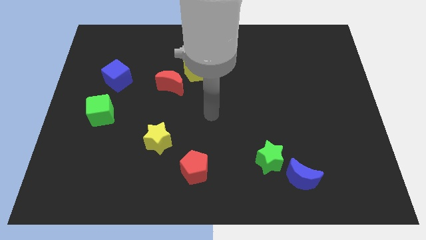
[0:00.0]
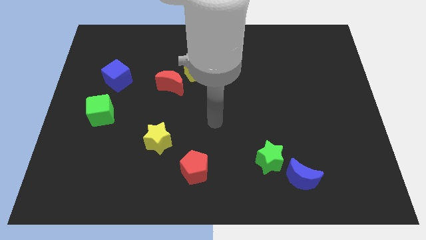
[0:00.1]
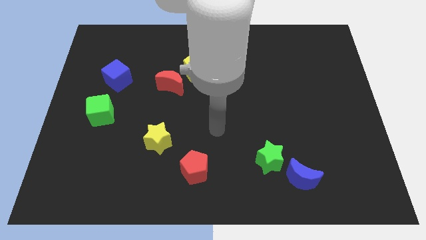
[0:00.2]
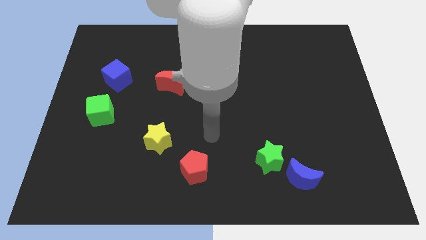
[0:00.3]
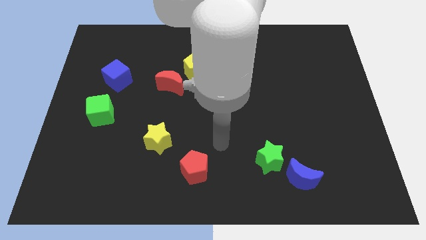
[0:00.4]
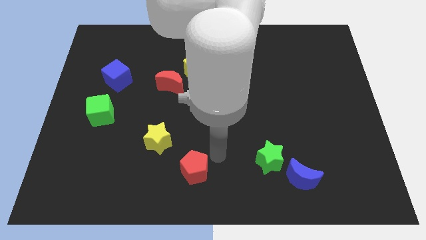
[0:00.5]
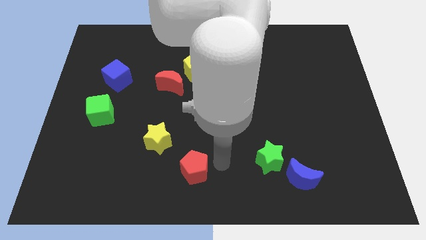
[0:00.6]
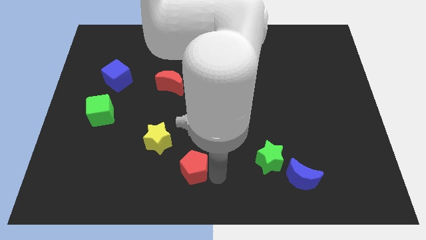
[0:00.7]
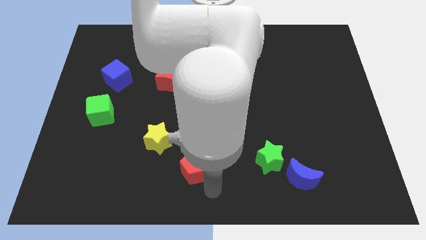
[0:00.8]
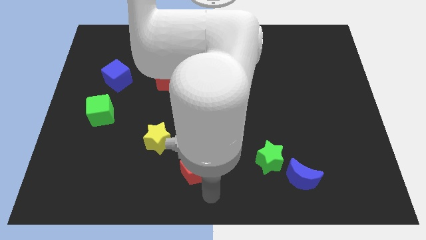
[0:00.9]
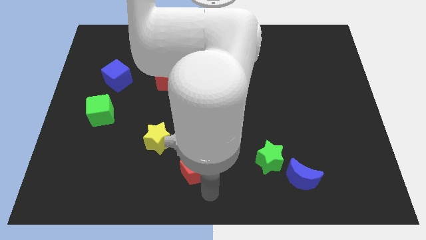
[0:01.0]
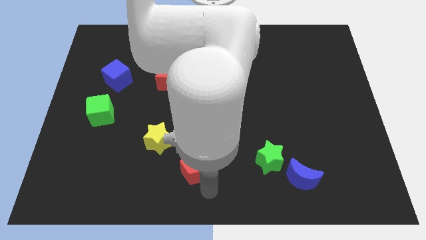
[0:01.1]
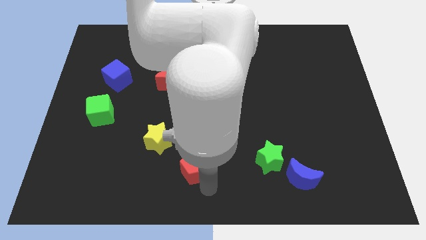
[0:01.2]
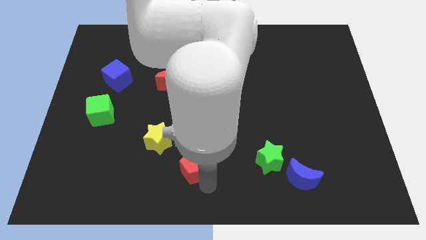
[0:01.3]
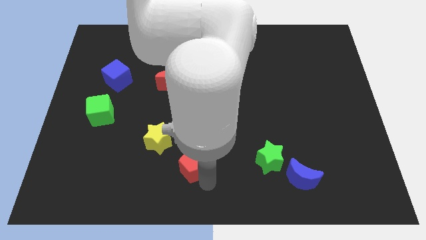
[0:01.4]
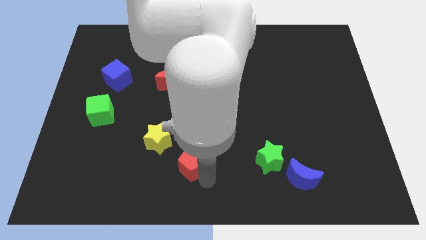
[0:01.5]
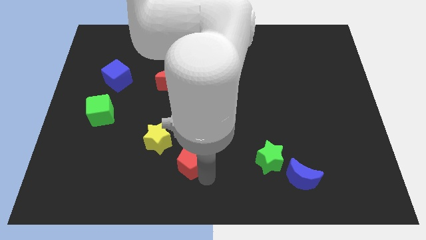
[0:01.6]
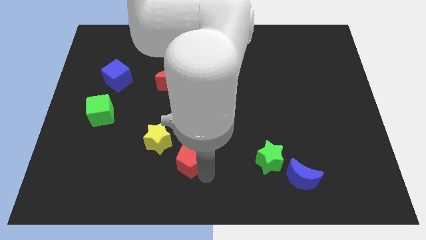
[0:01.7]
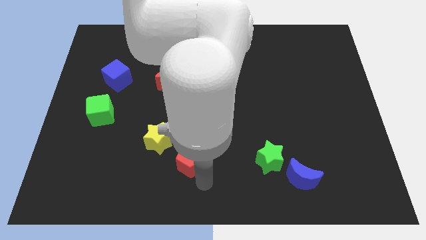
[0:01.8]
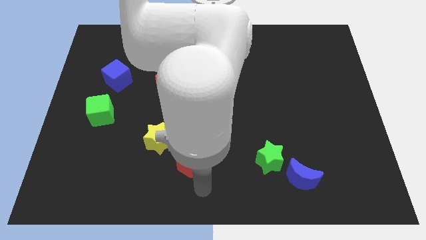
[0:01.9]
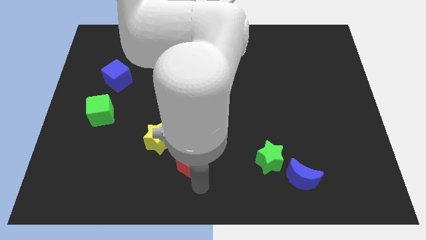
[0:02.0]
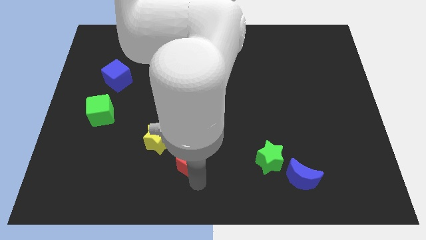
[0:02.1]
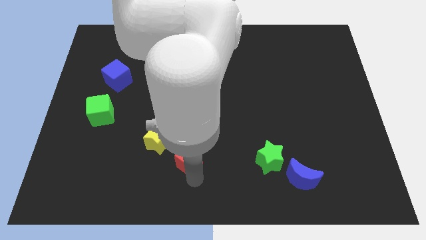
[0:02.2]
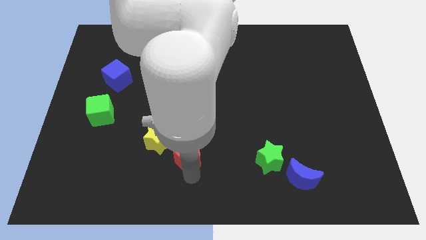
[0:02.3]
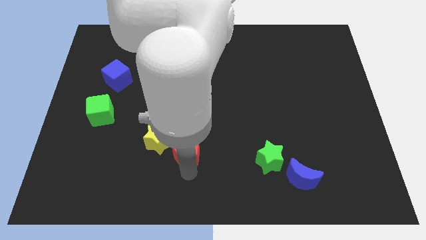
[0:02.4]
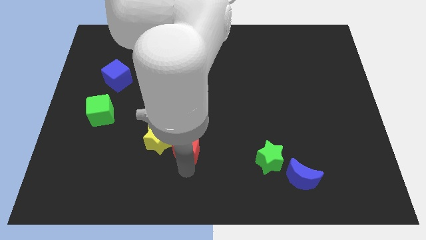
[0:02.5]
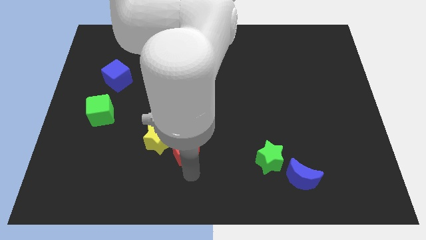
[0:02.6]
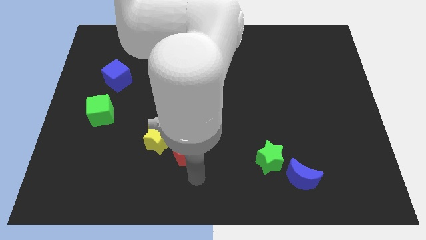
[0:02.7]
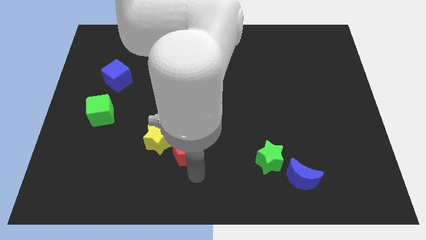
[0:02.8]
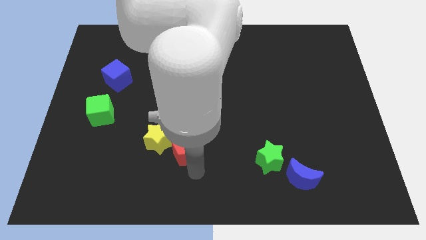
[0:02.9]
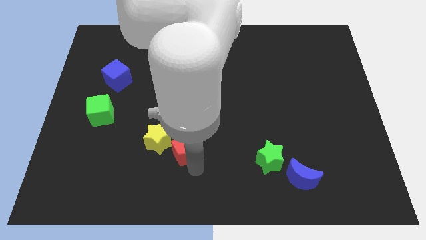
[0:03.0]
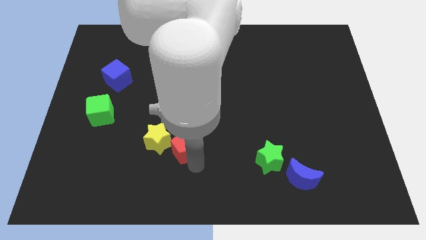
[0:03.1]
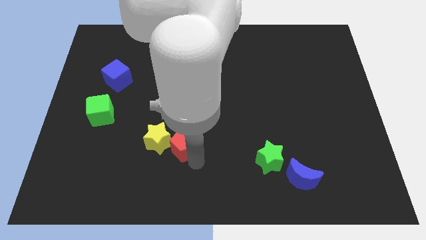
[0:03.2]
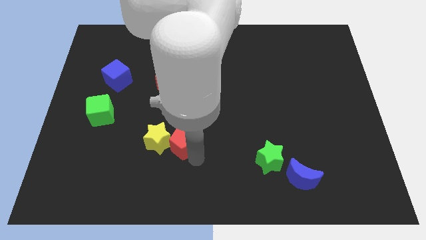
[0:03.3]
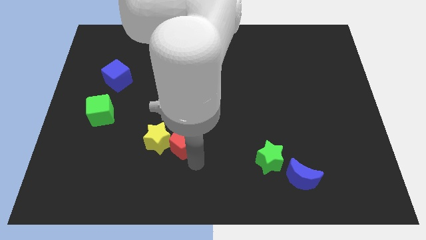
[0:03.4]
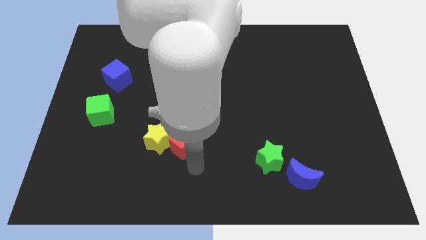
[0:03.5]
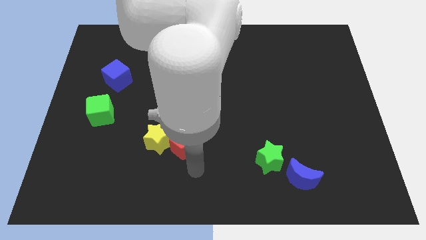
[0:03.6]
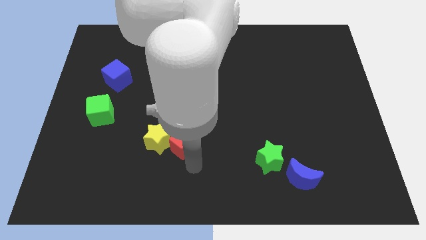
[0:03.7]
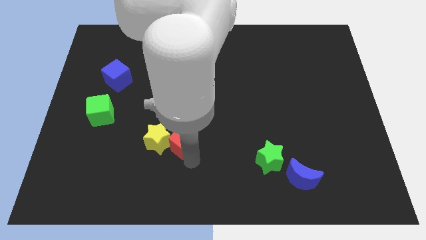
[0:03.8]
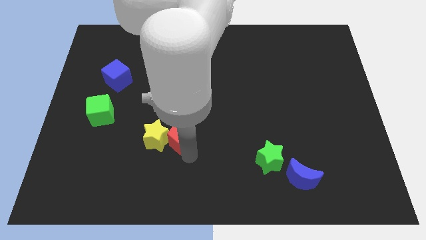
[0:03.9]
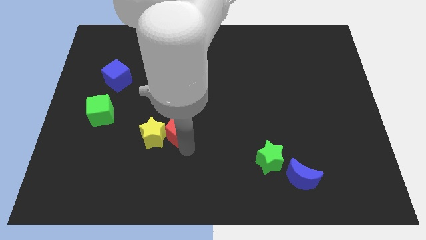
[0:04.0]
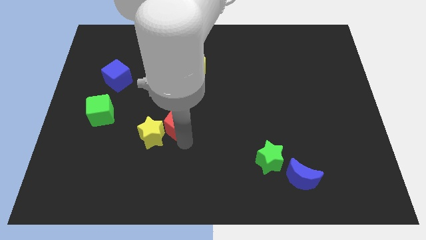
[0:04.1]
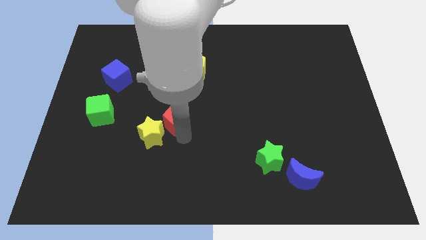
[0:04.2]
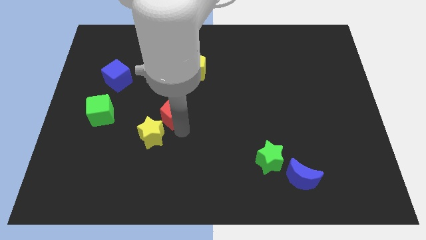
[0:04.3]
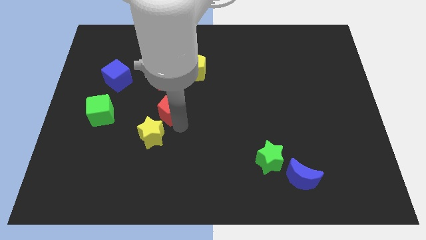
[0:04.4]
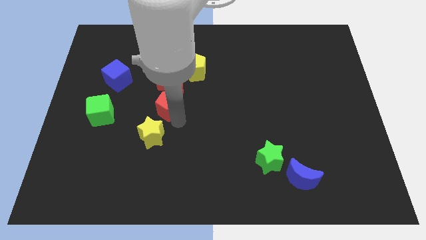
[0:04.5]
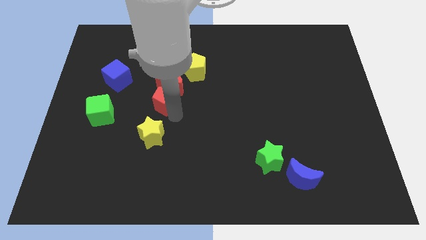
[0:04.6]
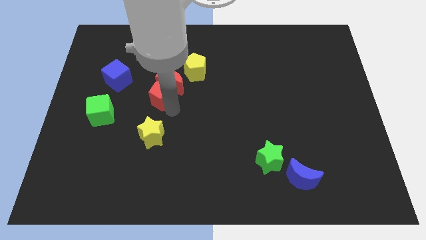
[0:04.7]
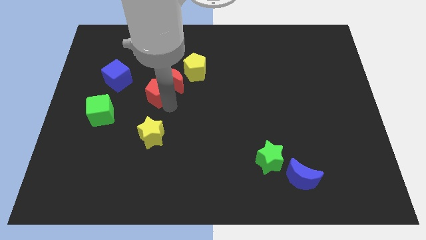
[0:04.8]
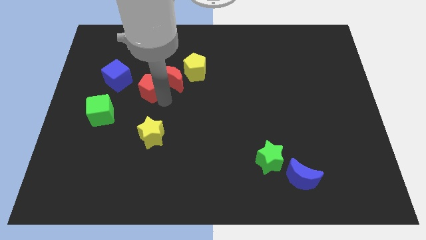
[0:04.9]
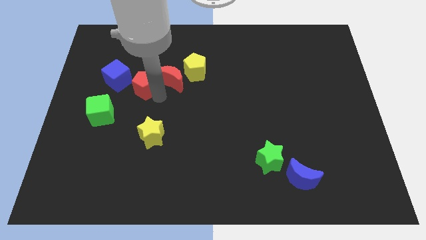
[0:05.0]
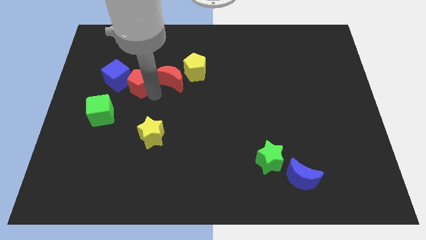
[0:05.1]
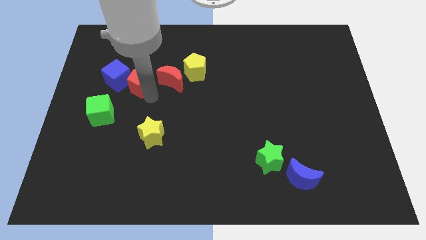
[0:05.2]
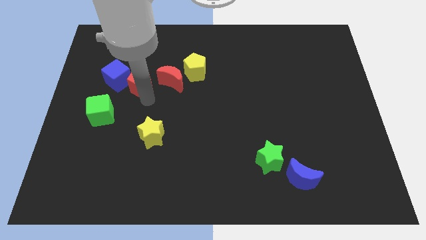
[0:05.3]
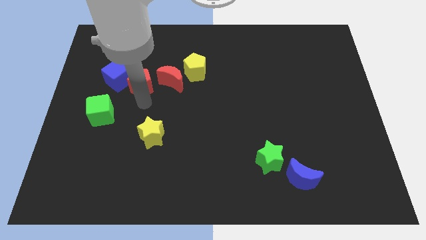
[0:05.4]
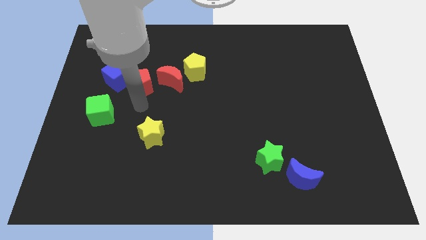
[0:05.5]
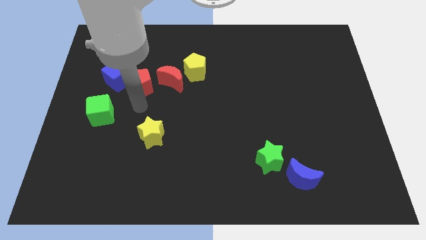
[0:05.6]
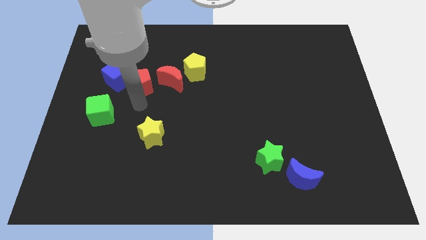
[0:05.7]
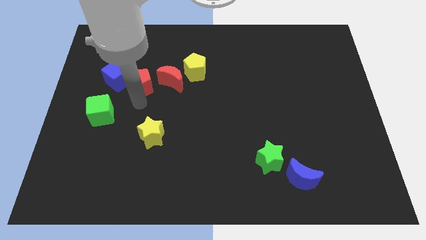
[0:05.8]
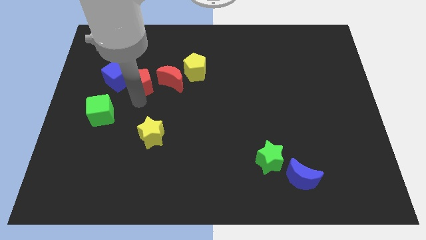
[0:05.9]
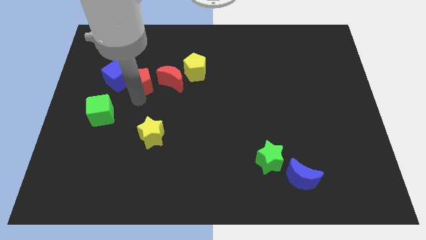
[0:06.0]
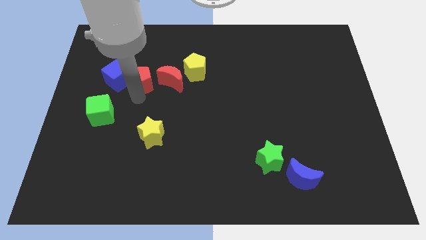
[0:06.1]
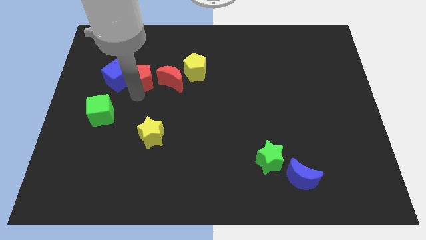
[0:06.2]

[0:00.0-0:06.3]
slide the red pentagon diagonally up and to the right of the blue cube

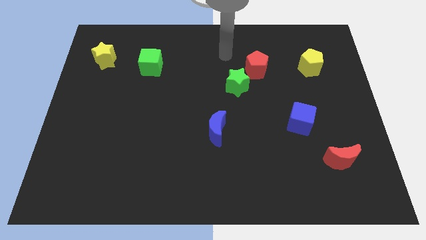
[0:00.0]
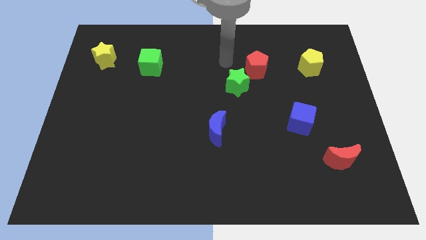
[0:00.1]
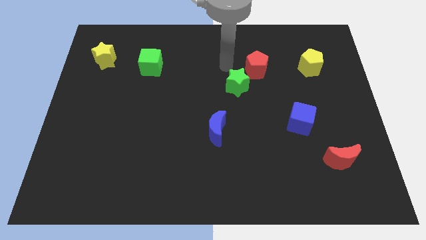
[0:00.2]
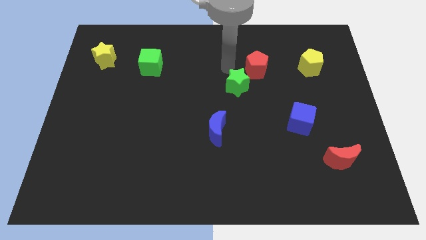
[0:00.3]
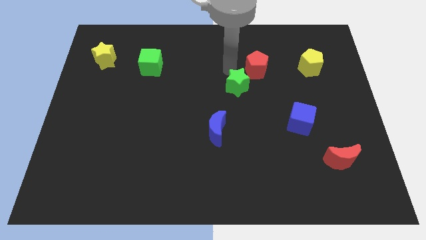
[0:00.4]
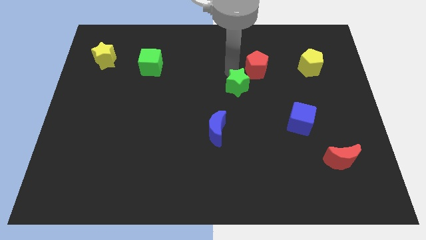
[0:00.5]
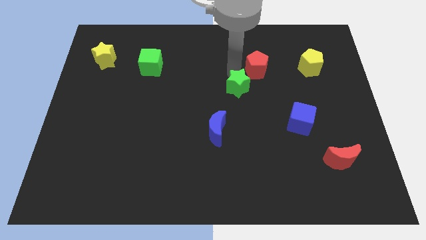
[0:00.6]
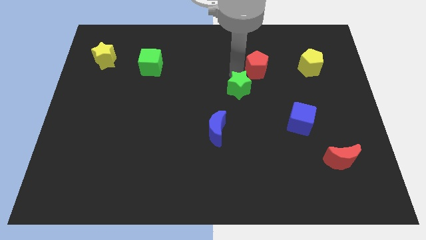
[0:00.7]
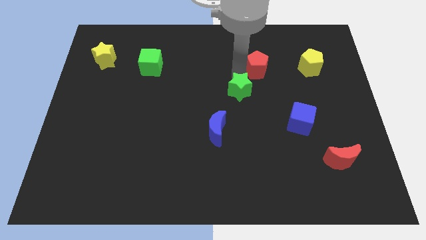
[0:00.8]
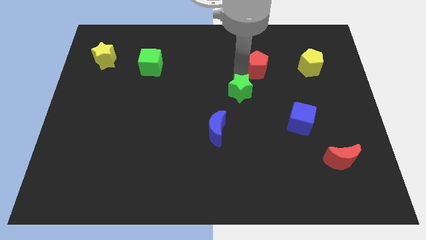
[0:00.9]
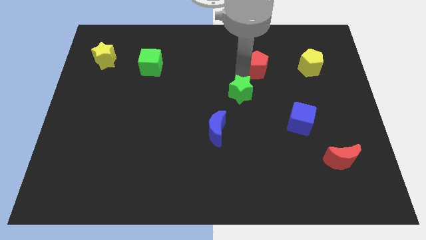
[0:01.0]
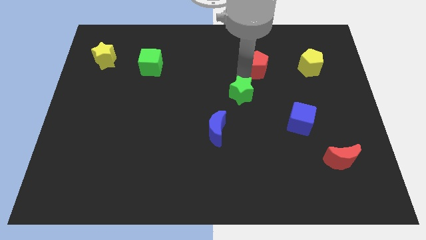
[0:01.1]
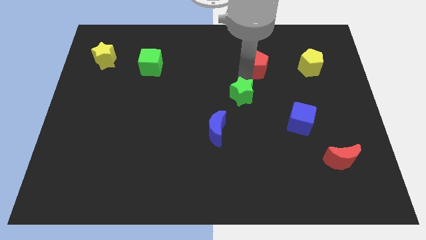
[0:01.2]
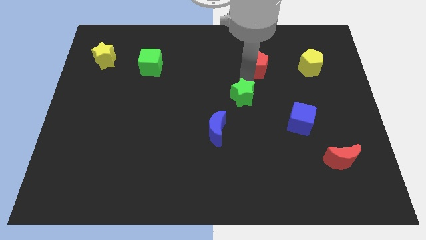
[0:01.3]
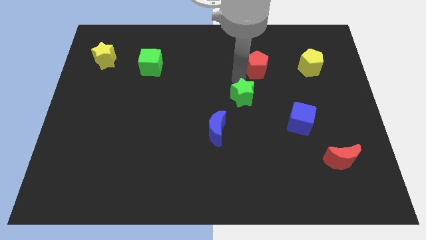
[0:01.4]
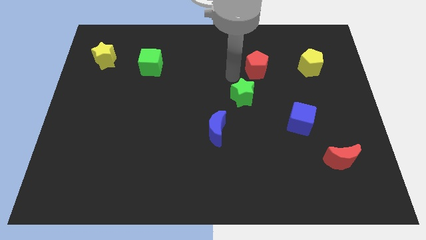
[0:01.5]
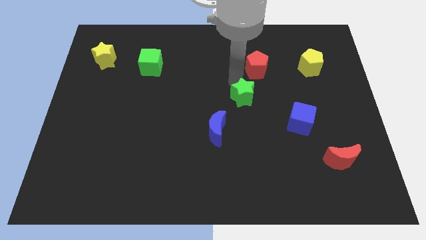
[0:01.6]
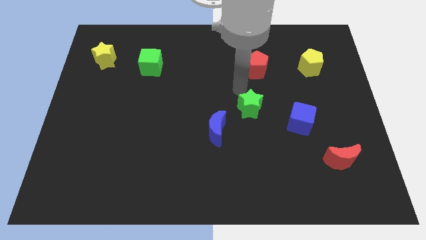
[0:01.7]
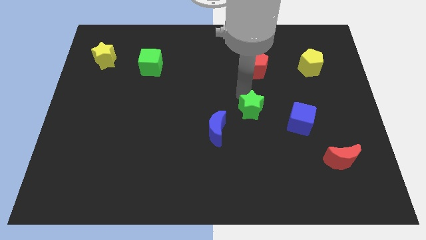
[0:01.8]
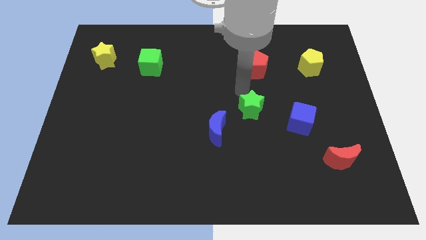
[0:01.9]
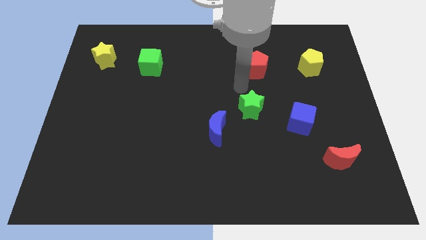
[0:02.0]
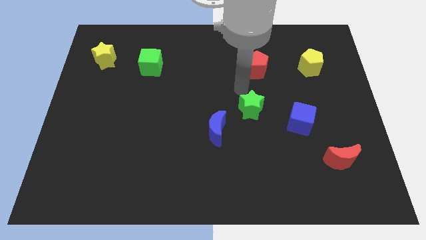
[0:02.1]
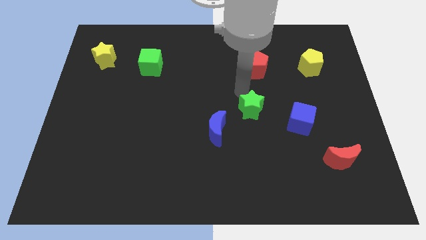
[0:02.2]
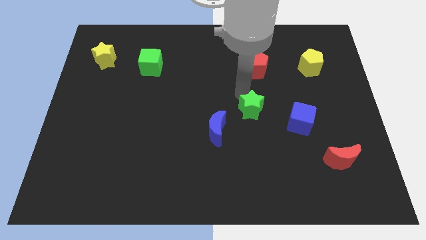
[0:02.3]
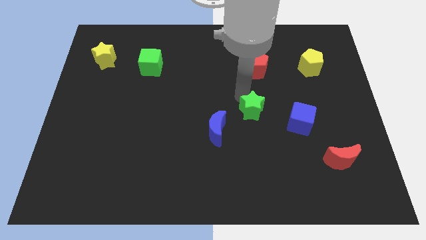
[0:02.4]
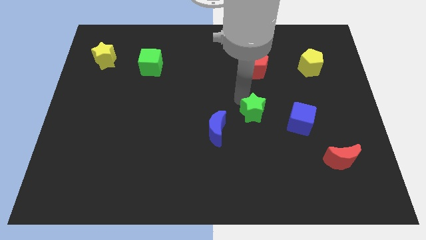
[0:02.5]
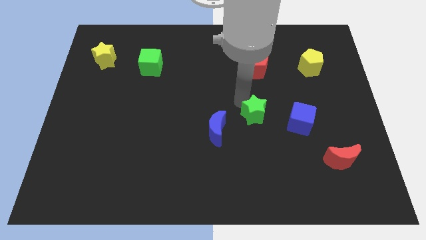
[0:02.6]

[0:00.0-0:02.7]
move the green star just right of the blue moon
